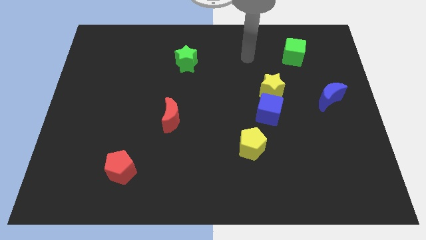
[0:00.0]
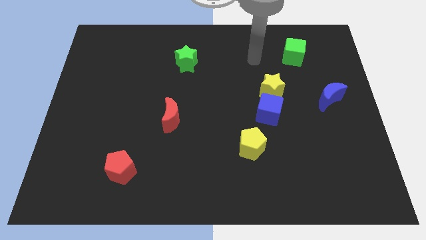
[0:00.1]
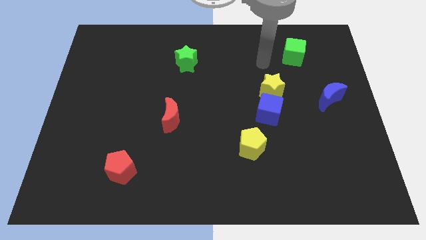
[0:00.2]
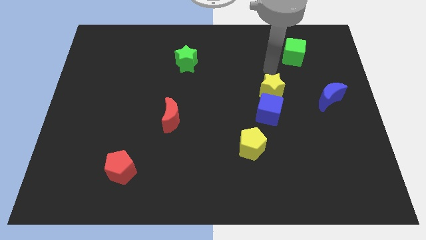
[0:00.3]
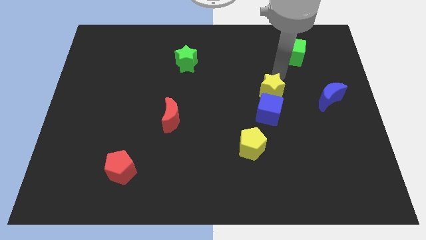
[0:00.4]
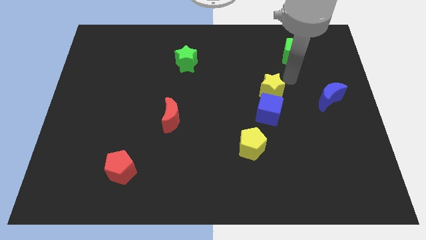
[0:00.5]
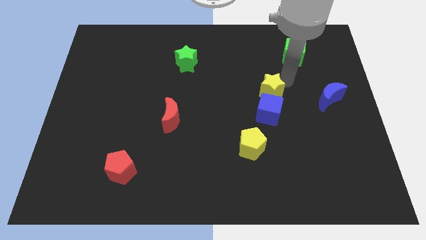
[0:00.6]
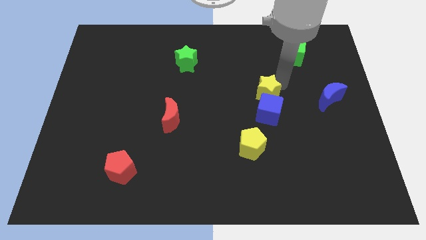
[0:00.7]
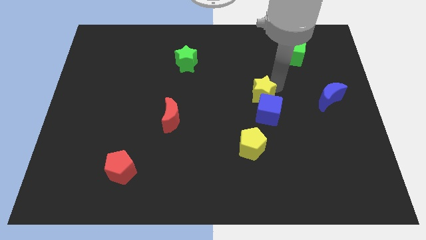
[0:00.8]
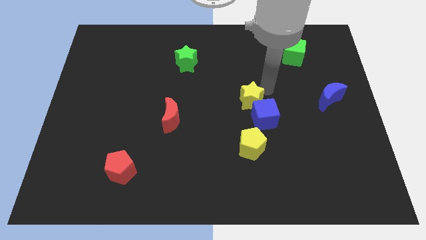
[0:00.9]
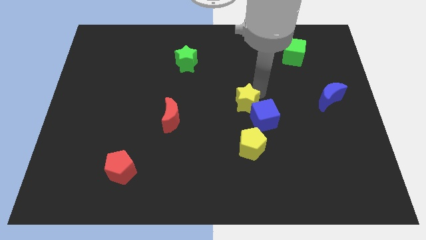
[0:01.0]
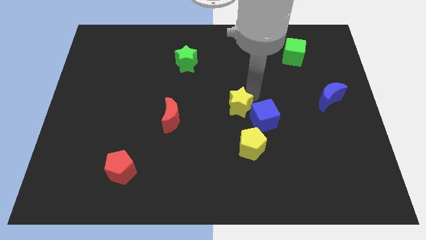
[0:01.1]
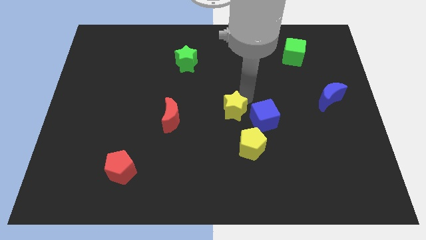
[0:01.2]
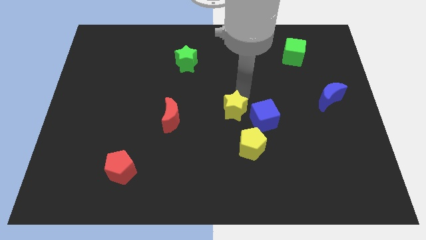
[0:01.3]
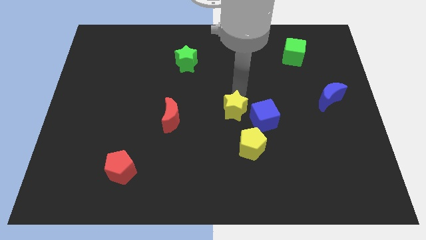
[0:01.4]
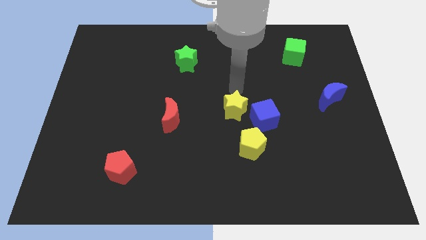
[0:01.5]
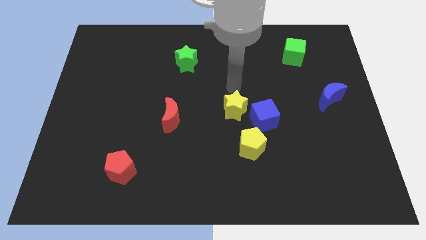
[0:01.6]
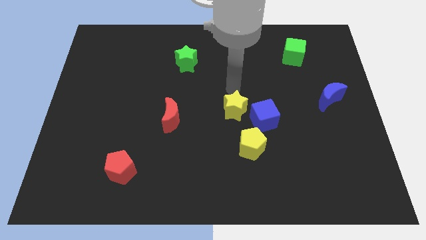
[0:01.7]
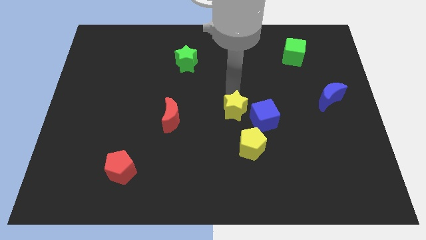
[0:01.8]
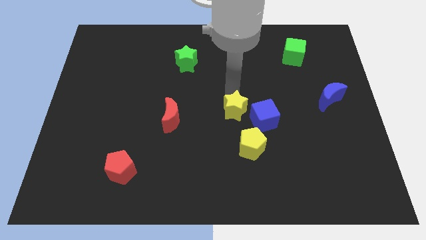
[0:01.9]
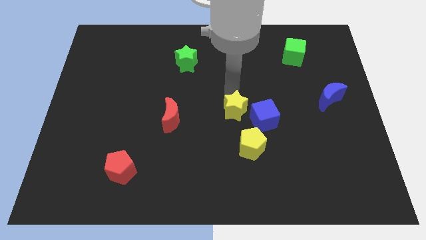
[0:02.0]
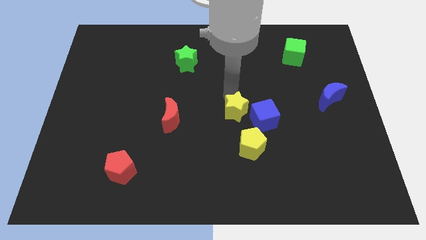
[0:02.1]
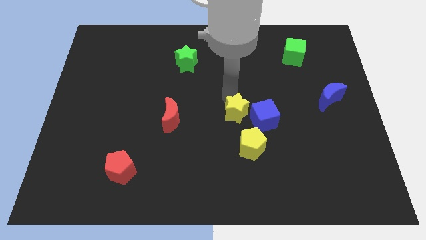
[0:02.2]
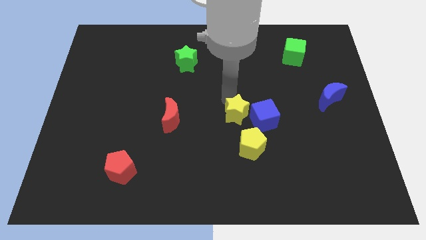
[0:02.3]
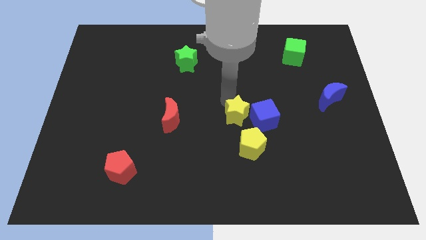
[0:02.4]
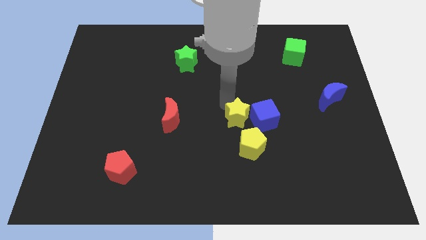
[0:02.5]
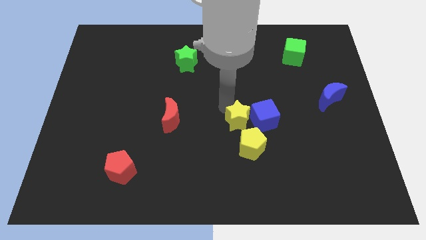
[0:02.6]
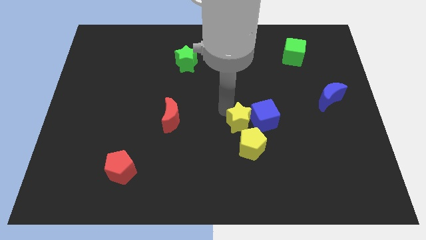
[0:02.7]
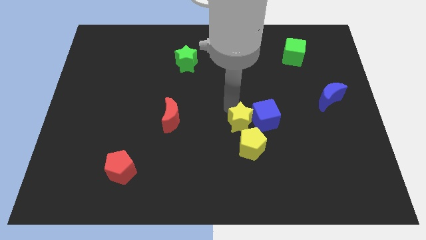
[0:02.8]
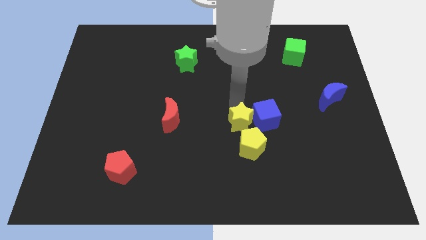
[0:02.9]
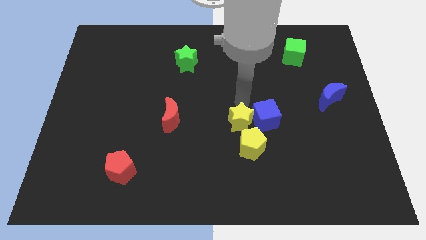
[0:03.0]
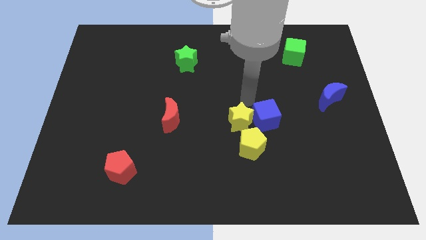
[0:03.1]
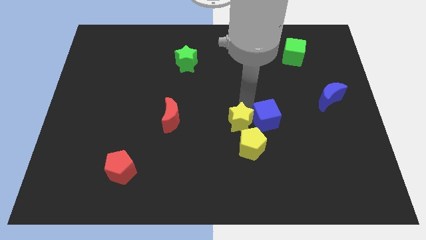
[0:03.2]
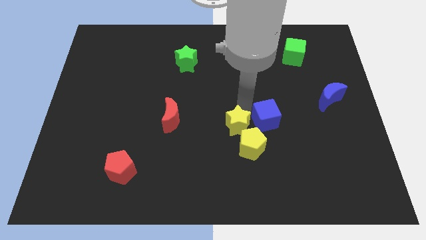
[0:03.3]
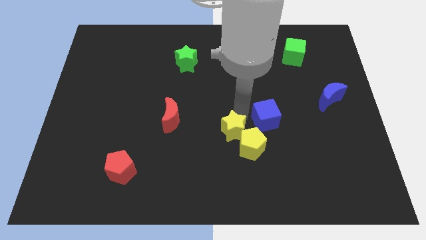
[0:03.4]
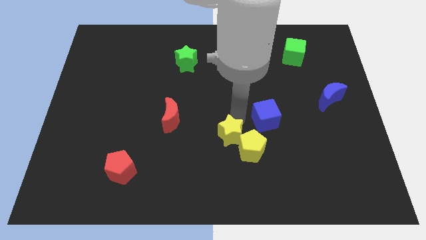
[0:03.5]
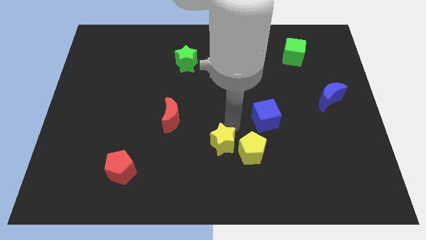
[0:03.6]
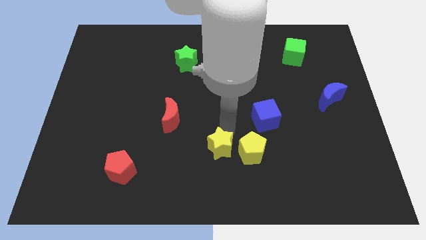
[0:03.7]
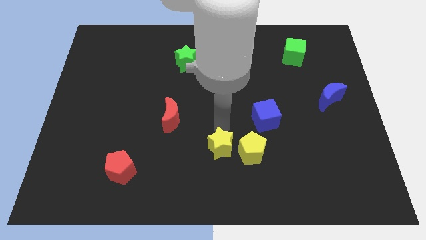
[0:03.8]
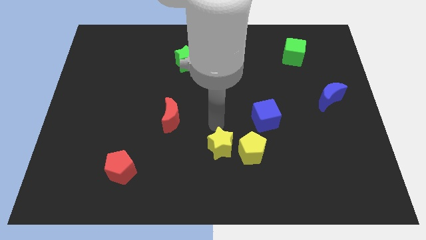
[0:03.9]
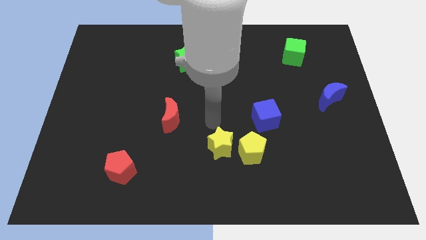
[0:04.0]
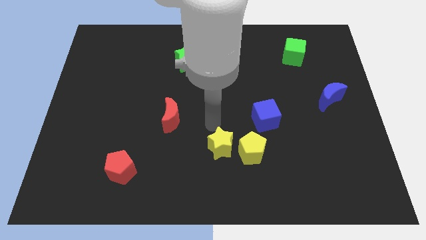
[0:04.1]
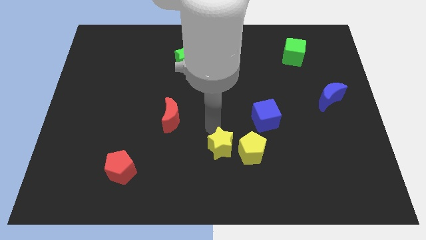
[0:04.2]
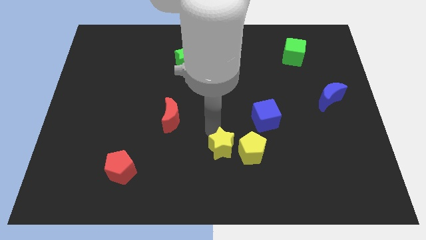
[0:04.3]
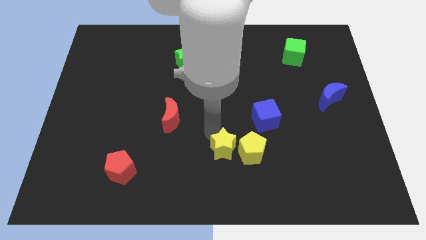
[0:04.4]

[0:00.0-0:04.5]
move the yellow star diagonally down and to the left of the yellow pentagon

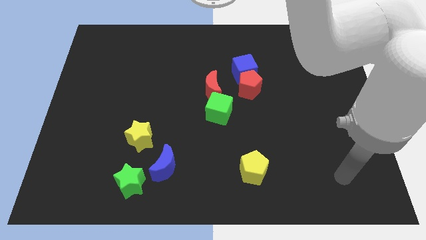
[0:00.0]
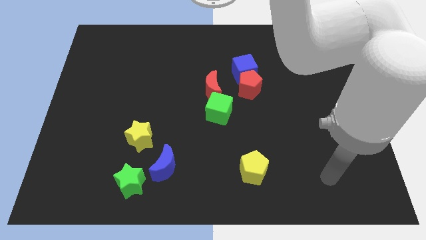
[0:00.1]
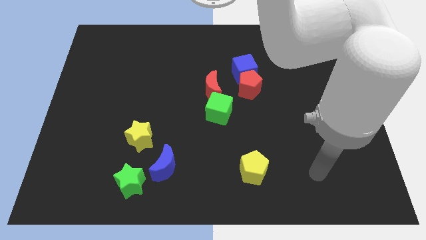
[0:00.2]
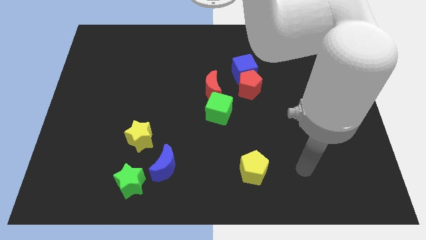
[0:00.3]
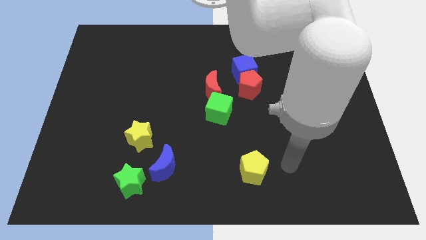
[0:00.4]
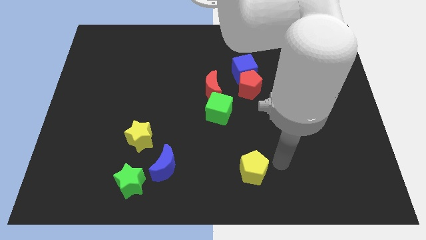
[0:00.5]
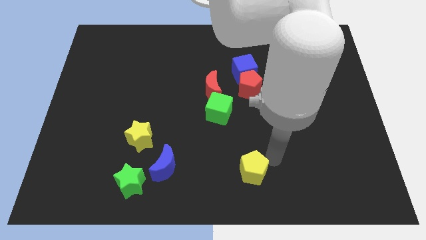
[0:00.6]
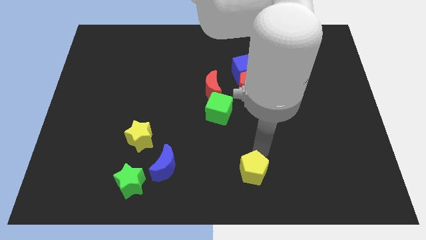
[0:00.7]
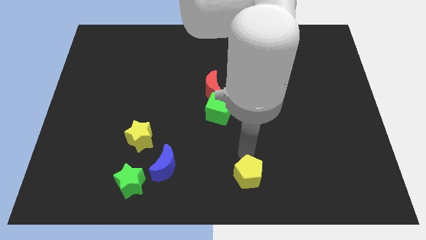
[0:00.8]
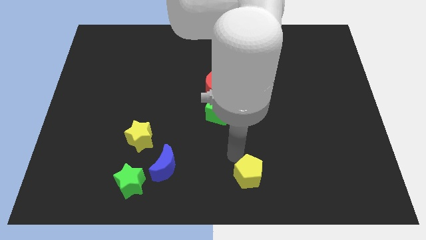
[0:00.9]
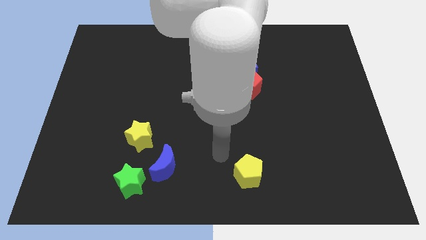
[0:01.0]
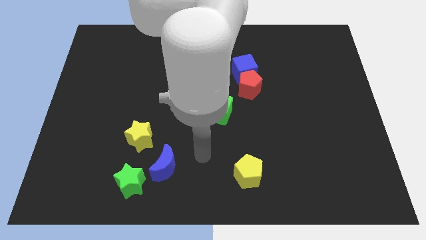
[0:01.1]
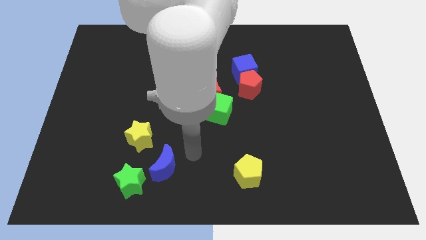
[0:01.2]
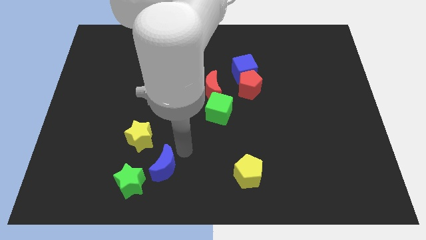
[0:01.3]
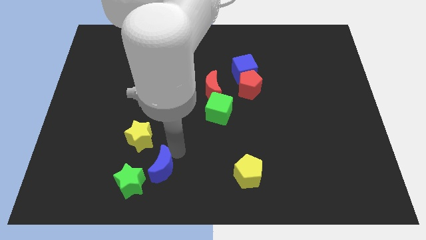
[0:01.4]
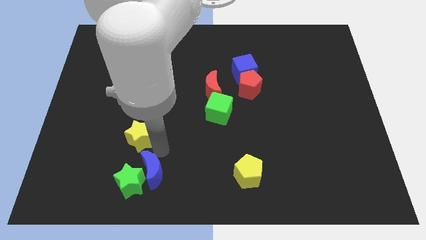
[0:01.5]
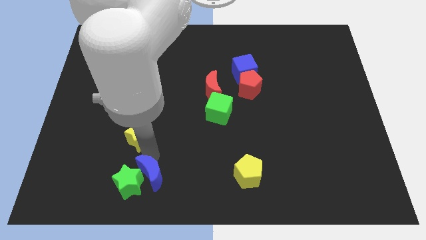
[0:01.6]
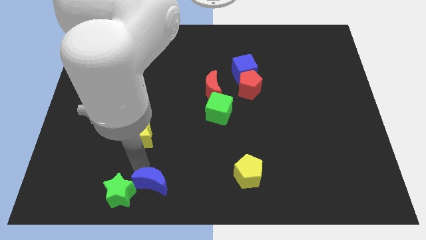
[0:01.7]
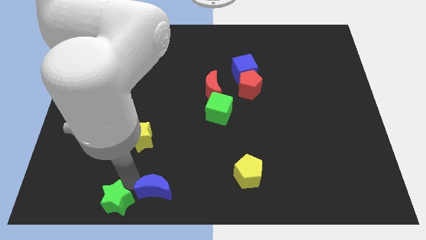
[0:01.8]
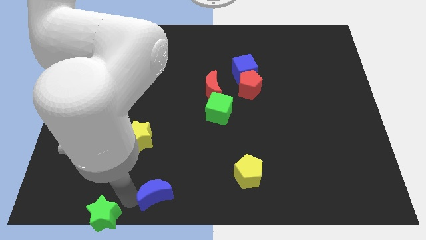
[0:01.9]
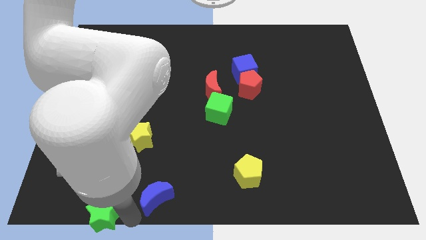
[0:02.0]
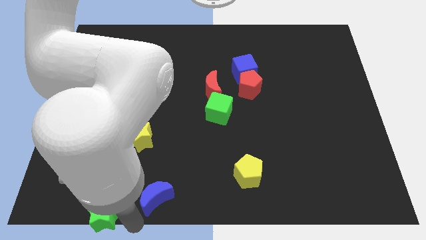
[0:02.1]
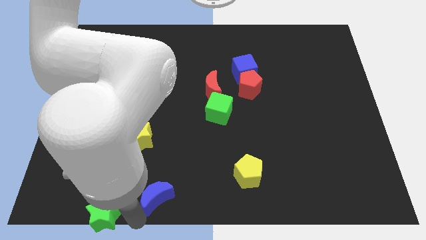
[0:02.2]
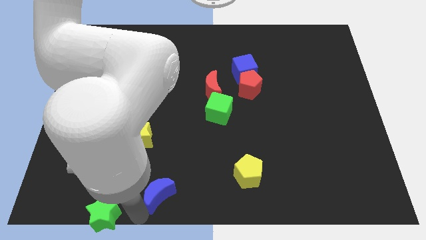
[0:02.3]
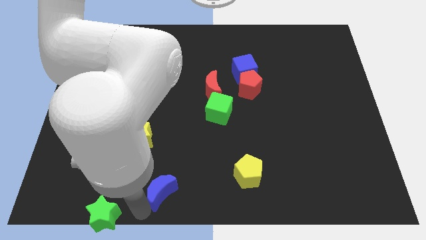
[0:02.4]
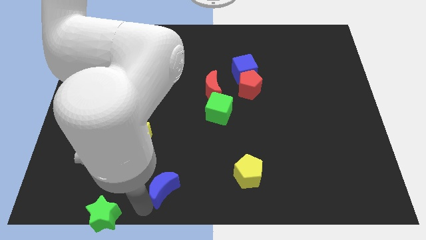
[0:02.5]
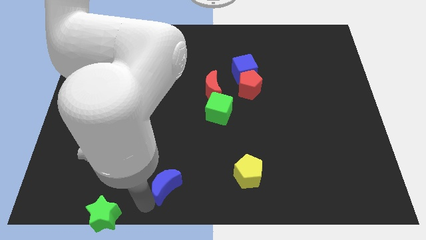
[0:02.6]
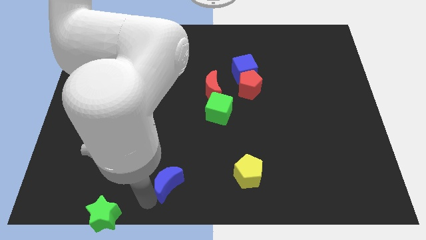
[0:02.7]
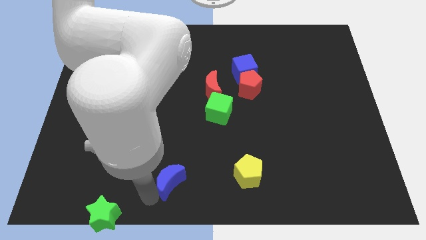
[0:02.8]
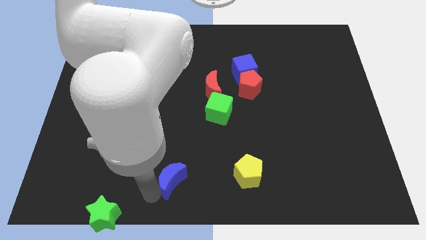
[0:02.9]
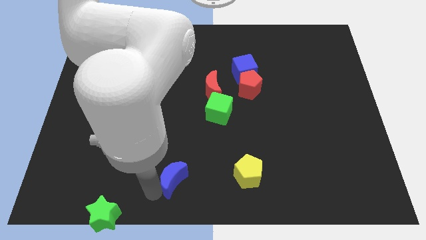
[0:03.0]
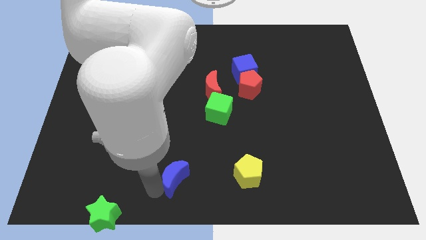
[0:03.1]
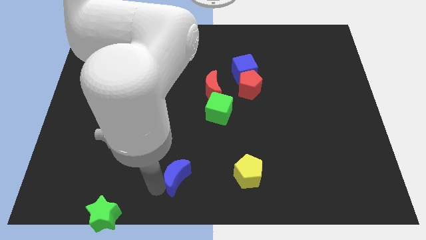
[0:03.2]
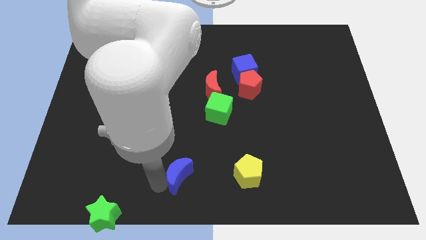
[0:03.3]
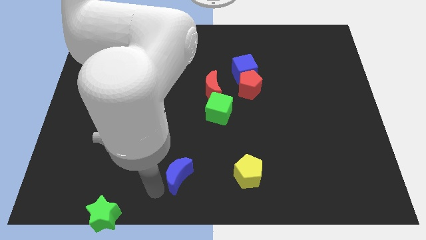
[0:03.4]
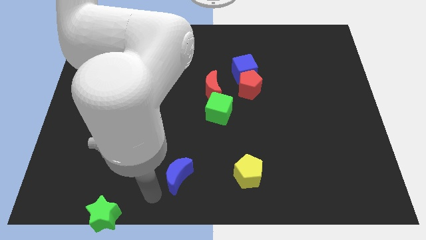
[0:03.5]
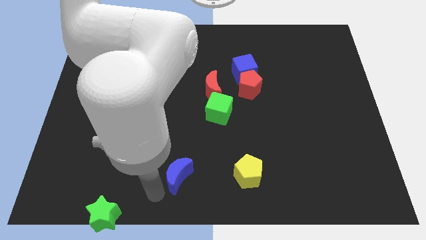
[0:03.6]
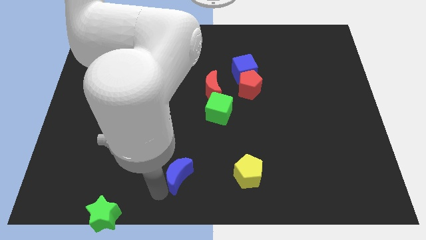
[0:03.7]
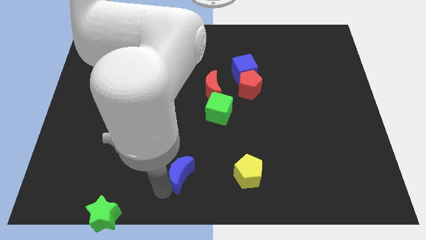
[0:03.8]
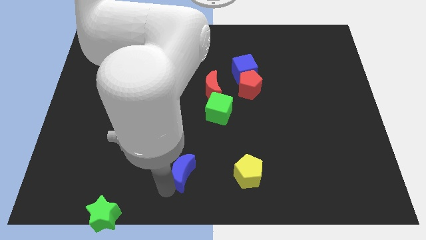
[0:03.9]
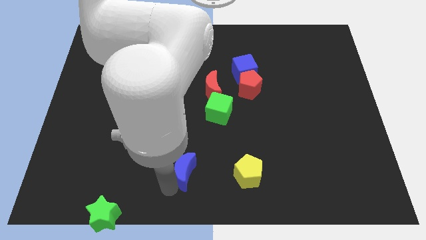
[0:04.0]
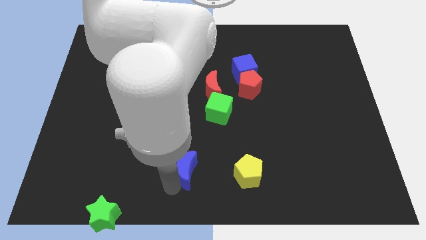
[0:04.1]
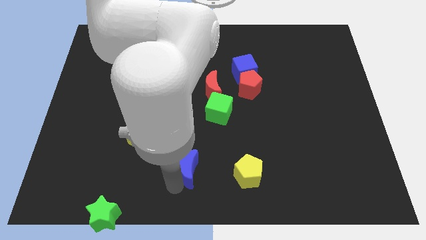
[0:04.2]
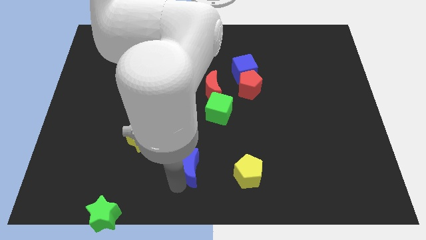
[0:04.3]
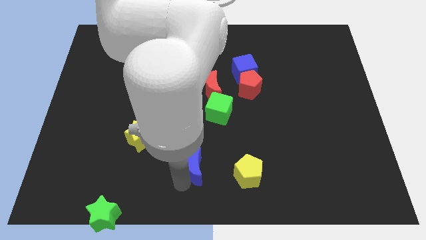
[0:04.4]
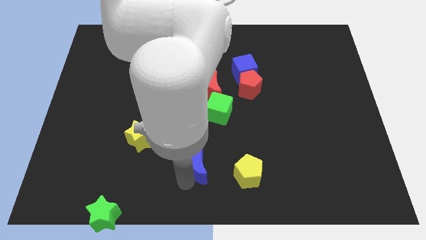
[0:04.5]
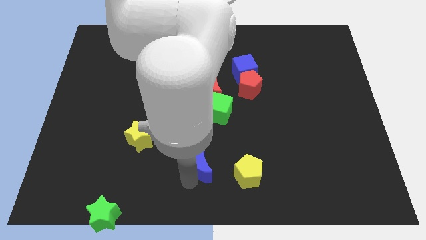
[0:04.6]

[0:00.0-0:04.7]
push the blue moon to the bottom side of the green cube
